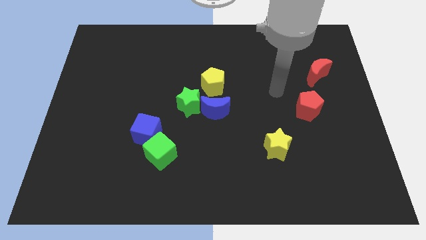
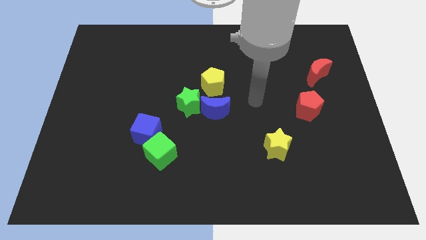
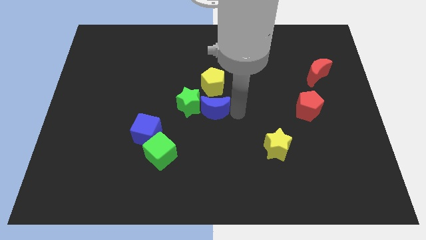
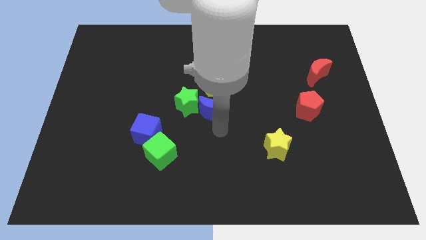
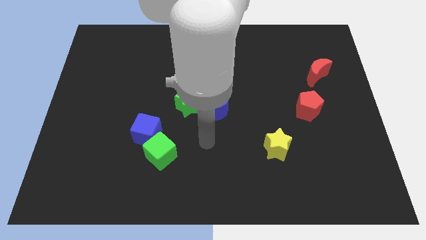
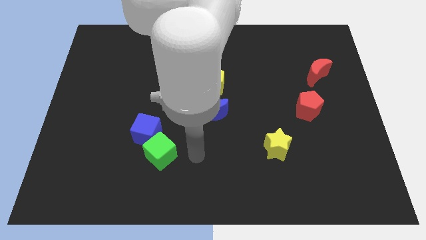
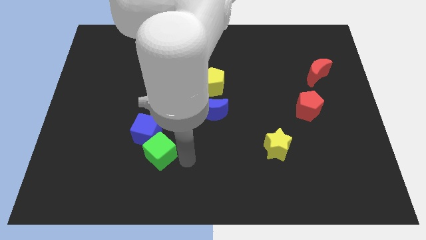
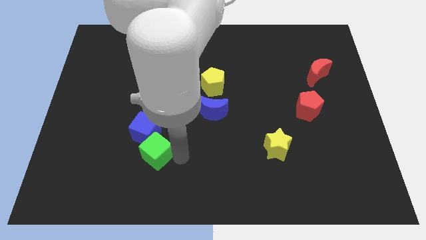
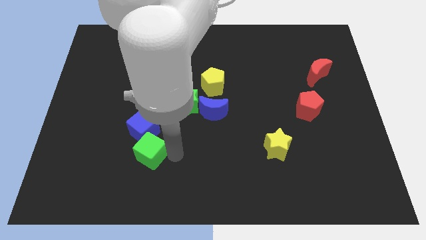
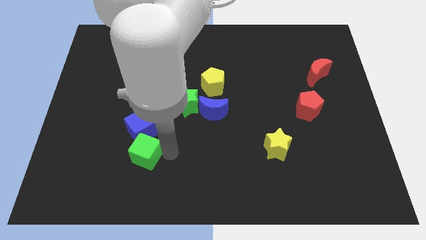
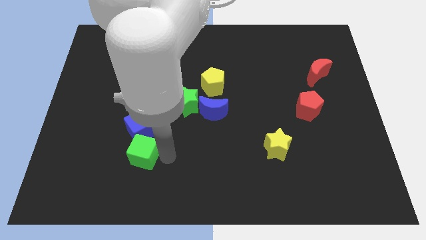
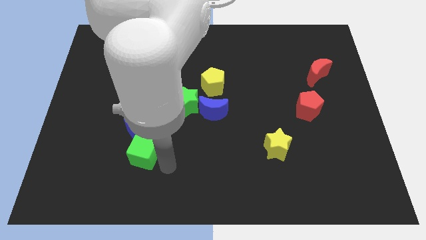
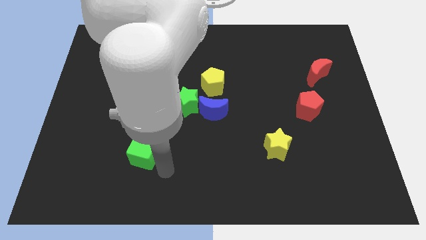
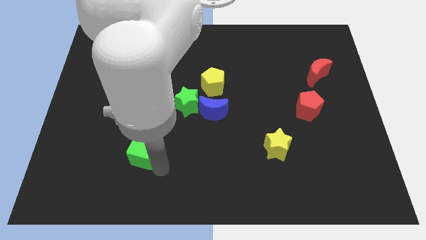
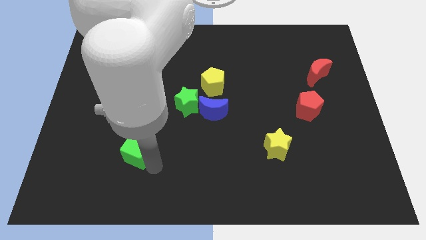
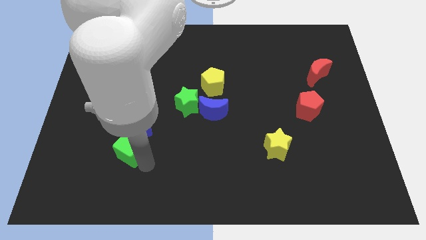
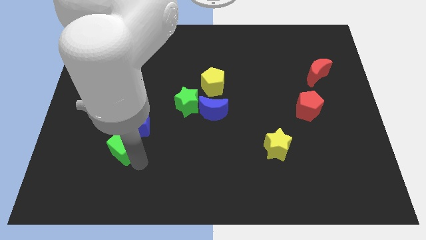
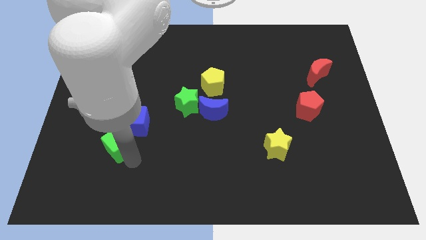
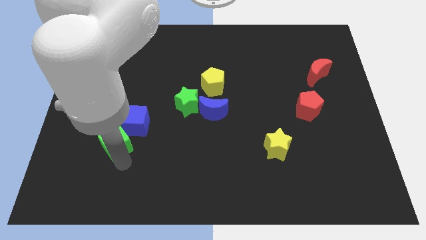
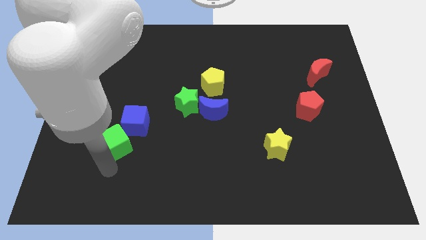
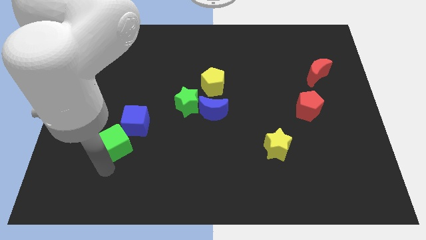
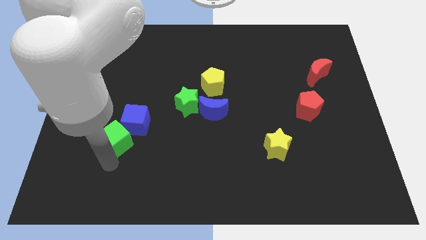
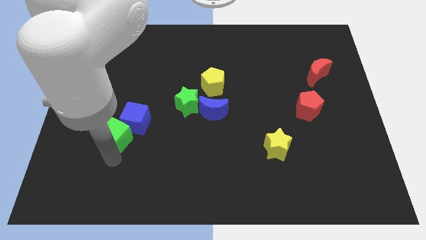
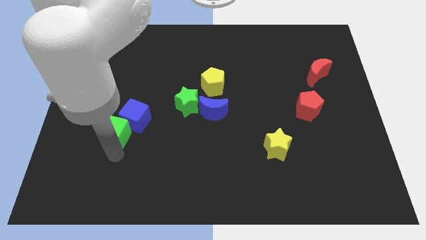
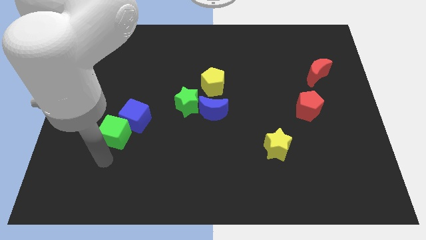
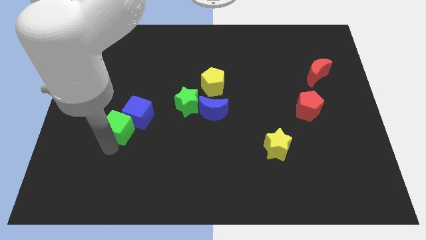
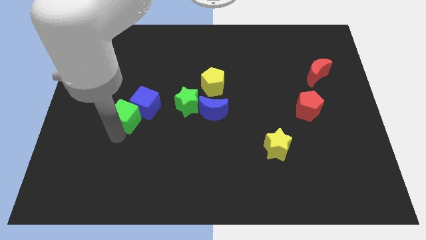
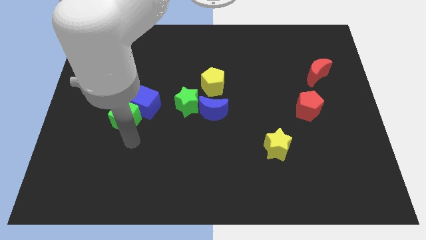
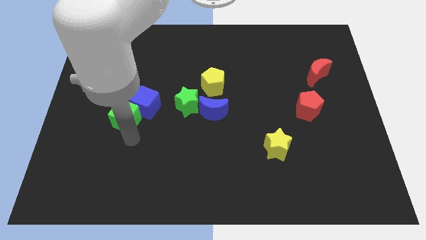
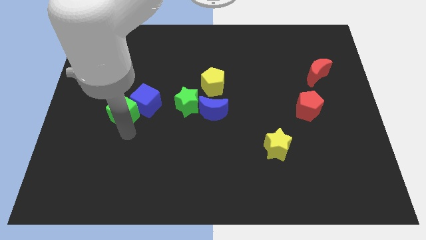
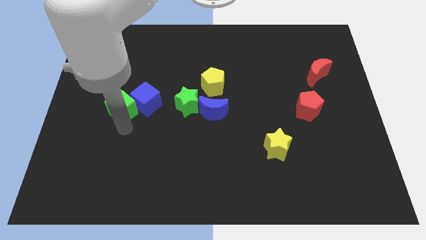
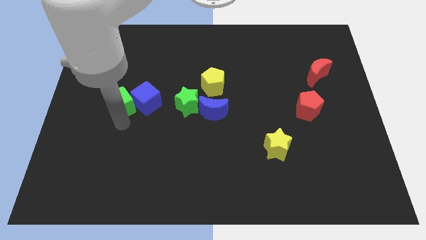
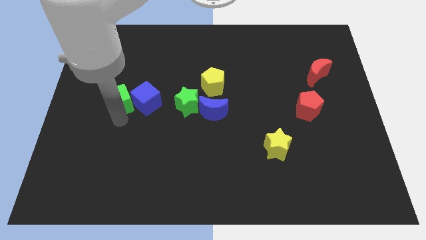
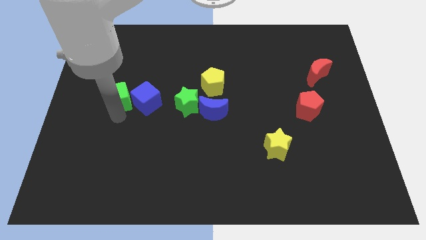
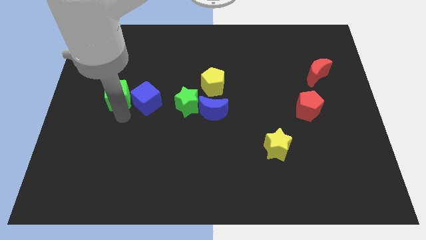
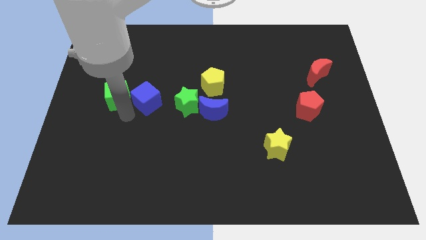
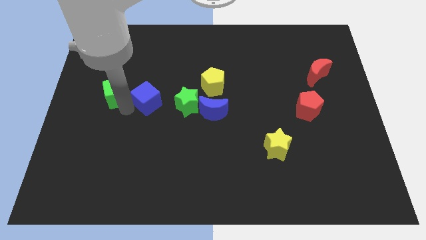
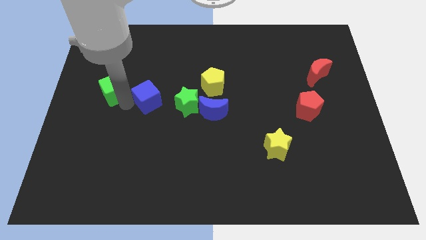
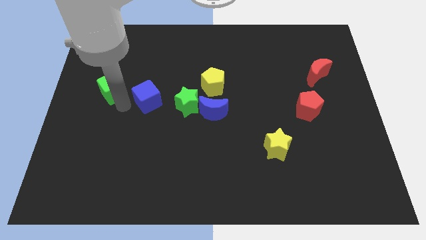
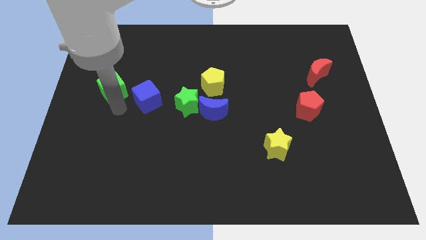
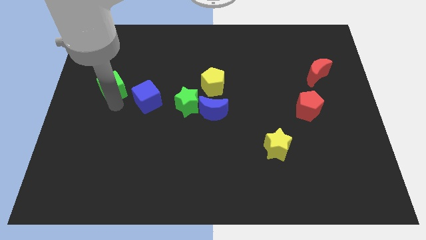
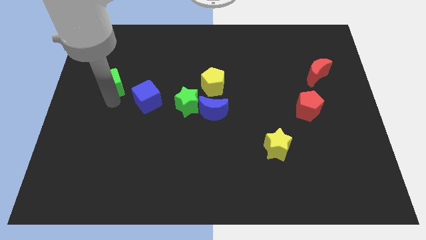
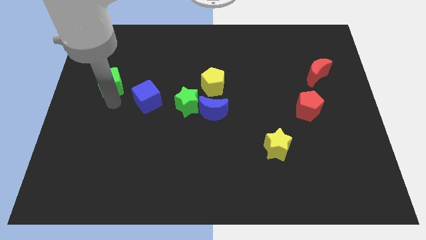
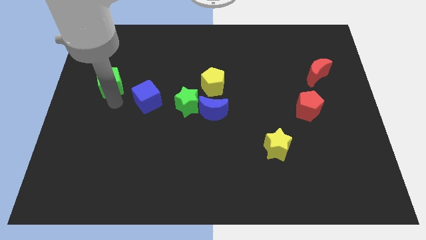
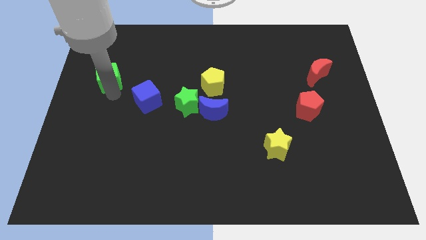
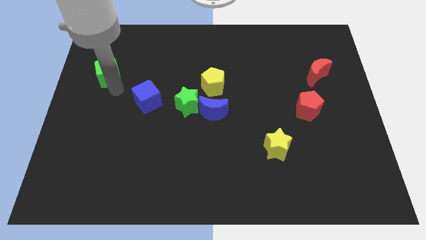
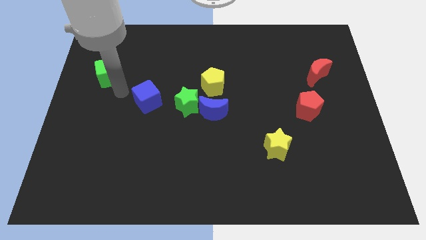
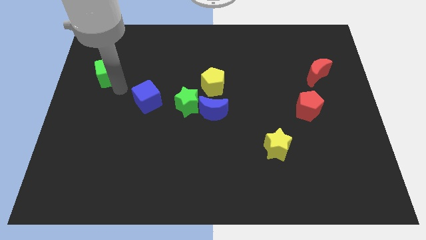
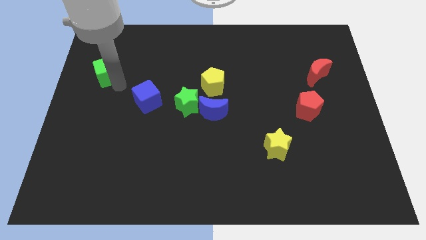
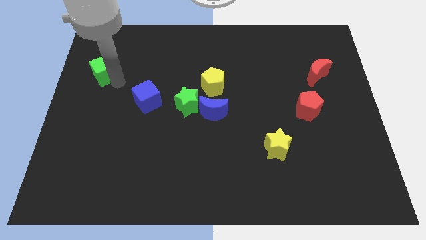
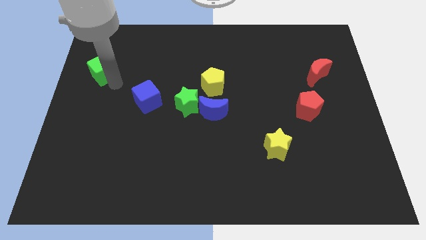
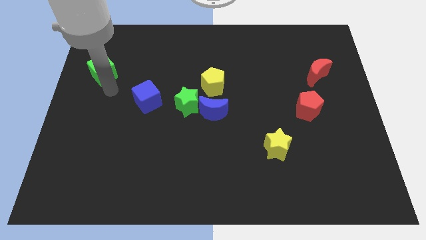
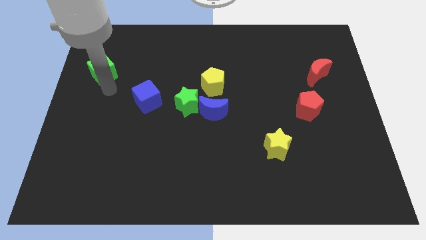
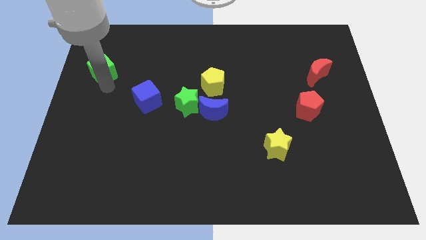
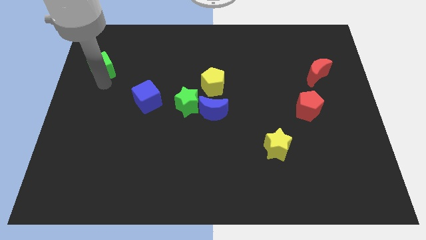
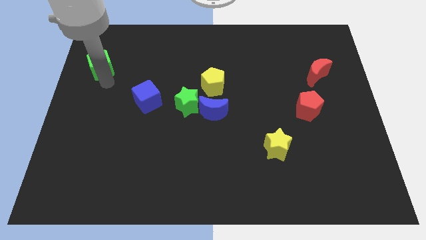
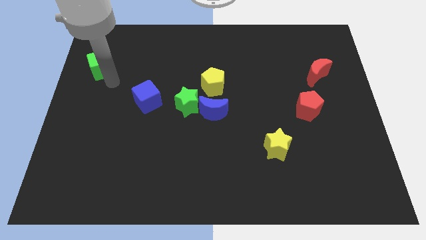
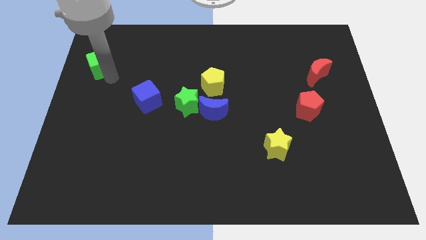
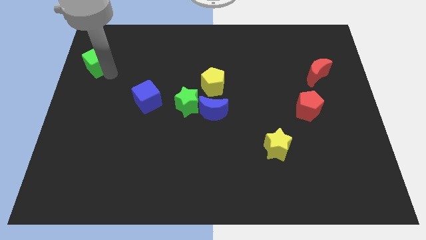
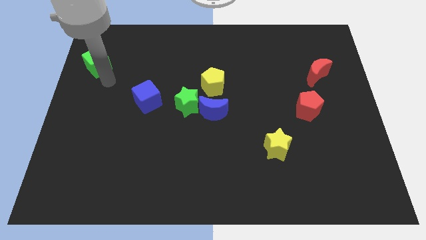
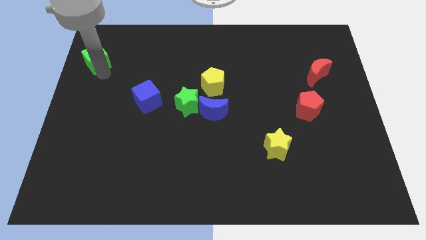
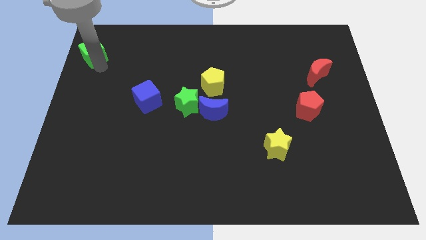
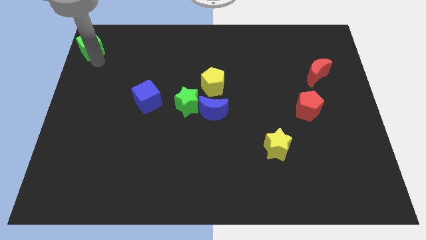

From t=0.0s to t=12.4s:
push the green cube to the top left of the board
